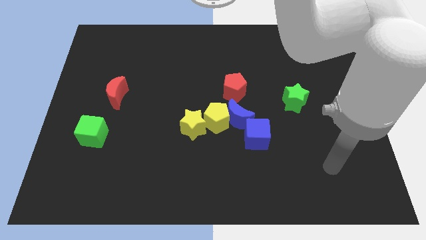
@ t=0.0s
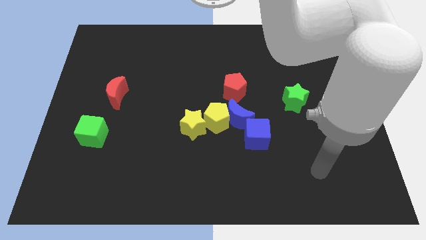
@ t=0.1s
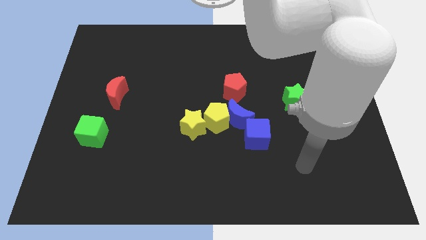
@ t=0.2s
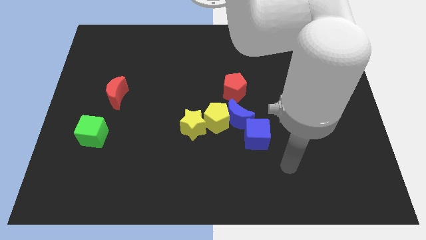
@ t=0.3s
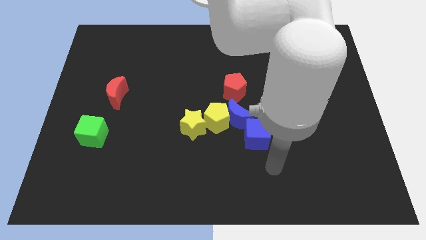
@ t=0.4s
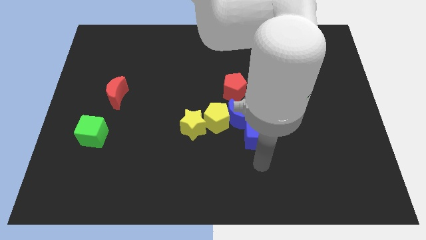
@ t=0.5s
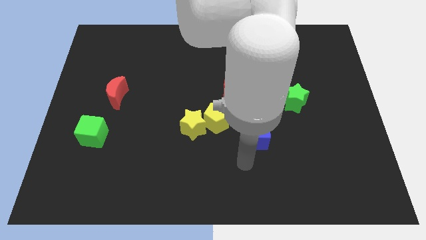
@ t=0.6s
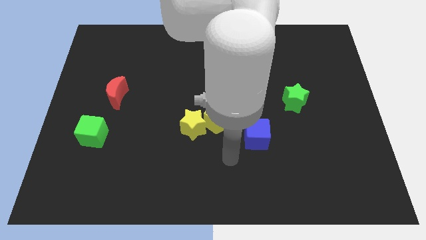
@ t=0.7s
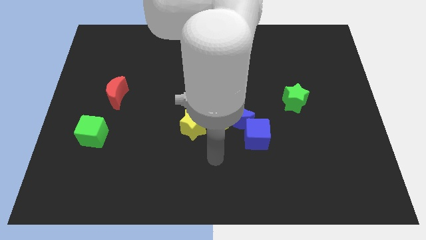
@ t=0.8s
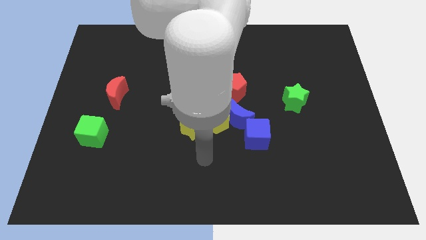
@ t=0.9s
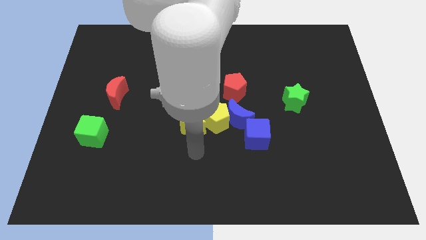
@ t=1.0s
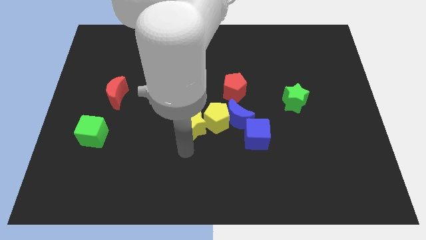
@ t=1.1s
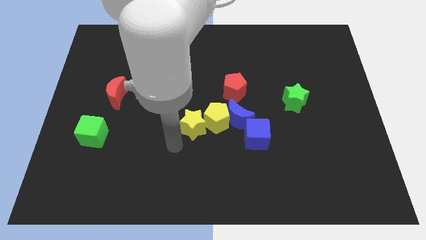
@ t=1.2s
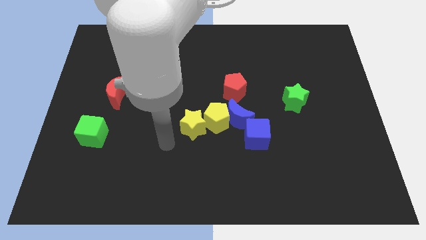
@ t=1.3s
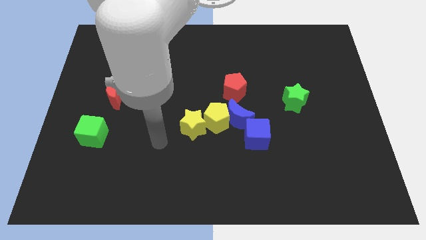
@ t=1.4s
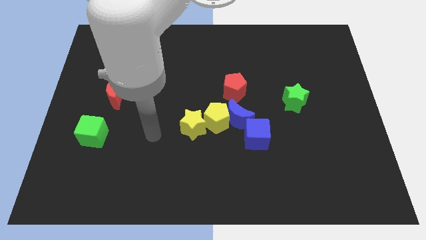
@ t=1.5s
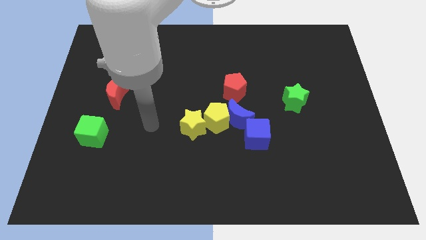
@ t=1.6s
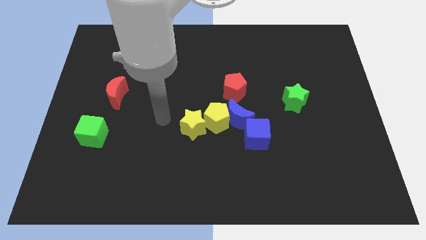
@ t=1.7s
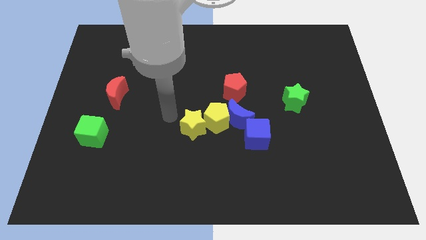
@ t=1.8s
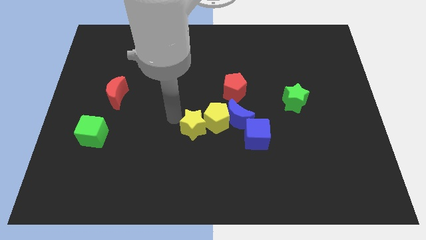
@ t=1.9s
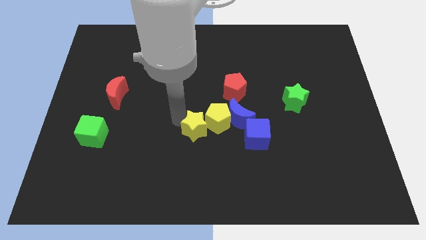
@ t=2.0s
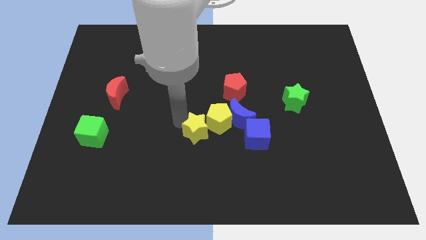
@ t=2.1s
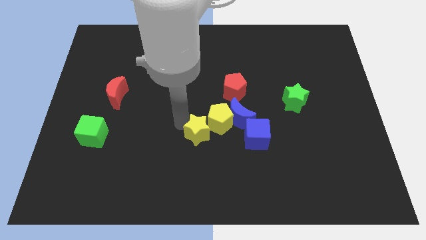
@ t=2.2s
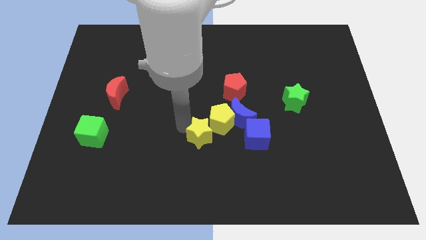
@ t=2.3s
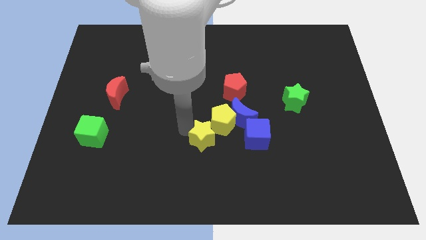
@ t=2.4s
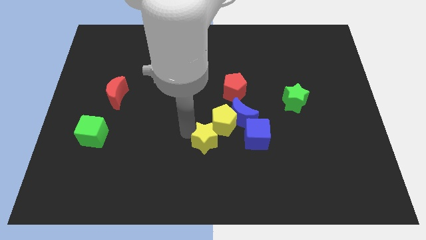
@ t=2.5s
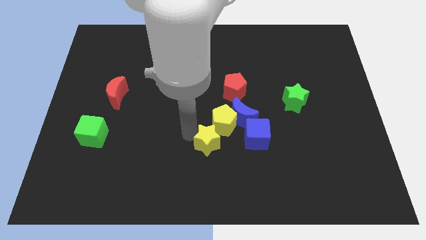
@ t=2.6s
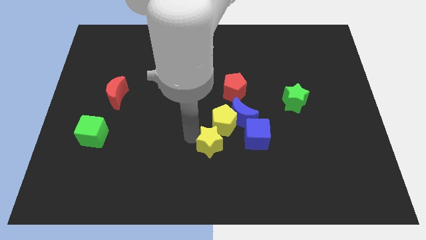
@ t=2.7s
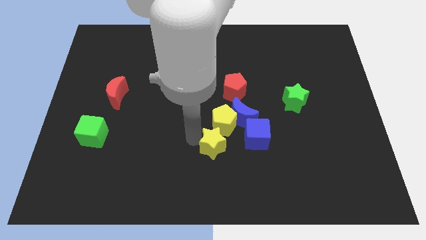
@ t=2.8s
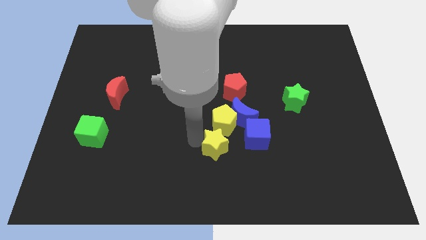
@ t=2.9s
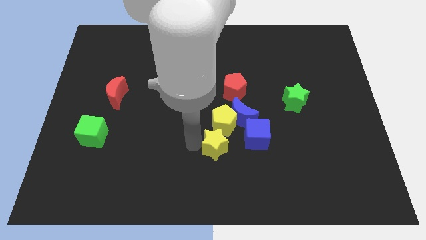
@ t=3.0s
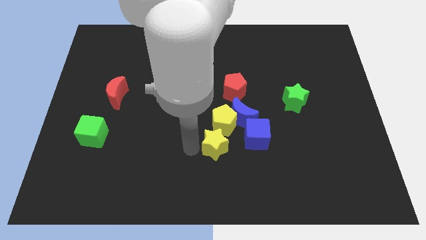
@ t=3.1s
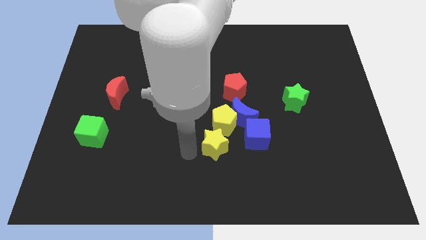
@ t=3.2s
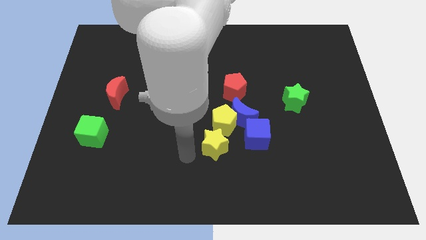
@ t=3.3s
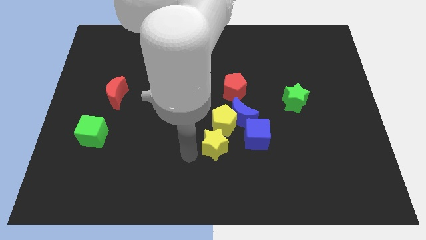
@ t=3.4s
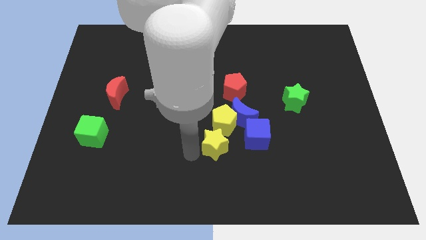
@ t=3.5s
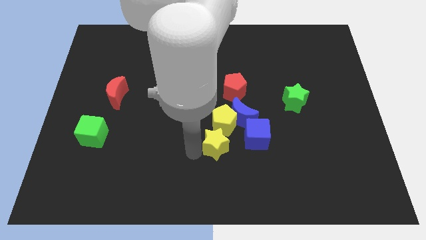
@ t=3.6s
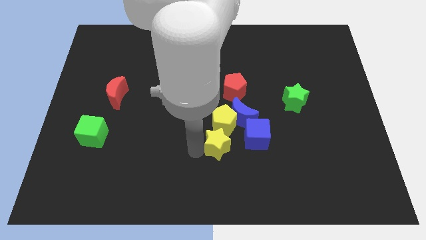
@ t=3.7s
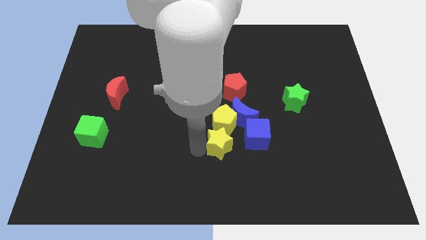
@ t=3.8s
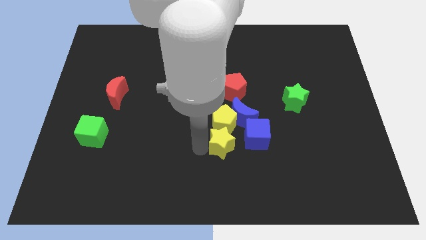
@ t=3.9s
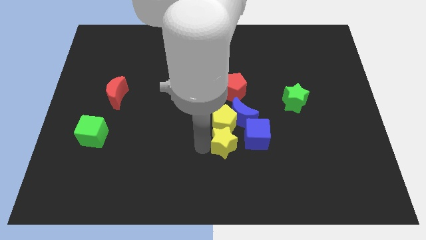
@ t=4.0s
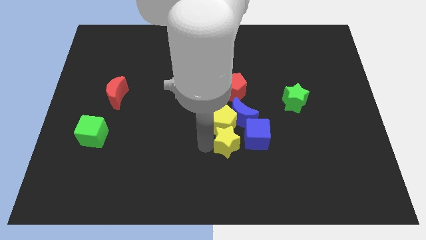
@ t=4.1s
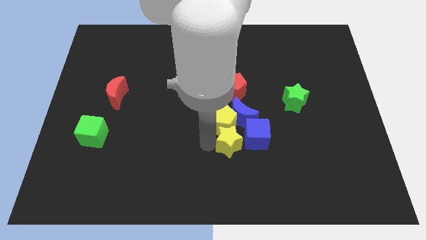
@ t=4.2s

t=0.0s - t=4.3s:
slide the yellow star a little bit to the right

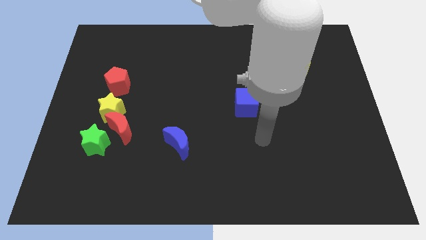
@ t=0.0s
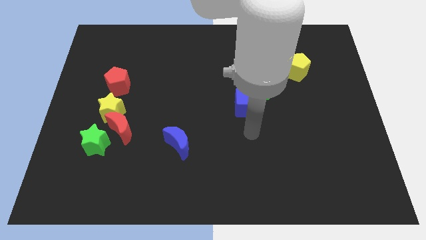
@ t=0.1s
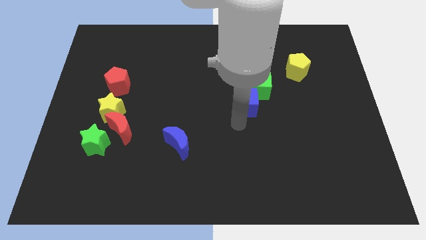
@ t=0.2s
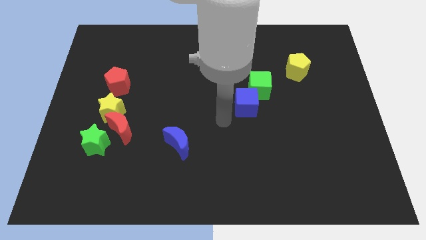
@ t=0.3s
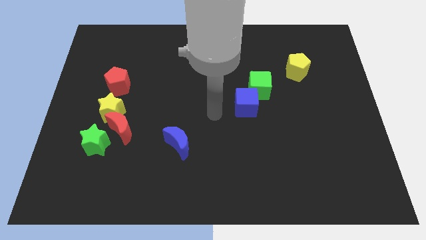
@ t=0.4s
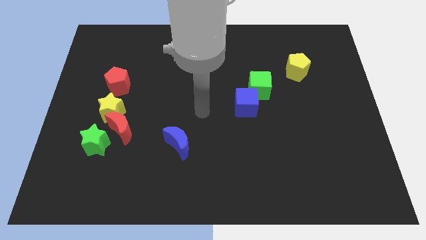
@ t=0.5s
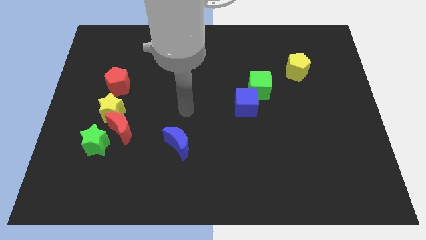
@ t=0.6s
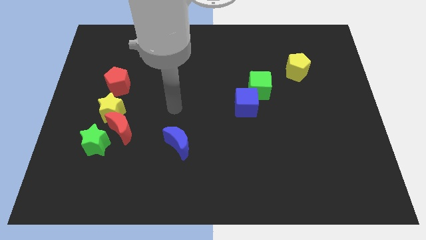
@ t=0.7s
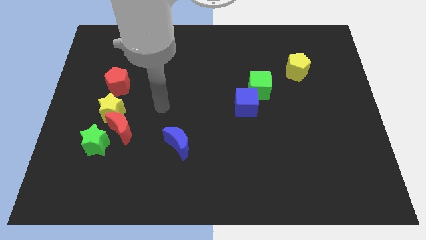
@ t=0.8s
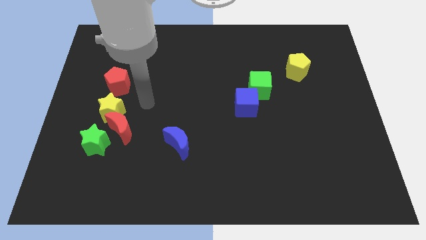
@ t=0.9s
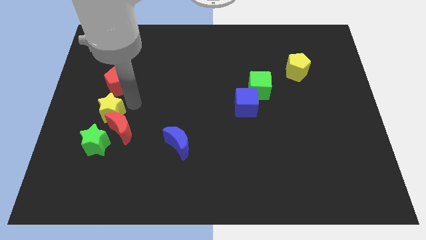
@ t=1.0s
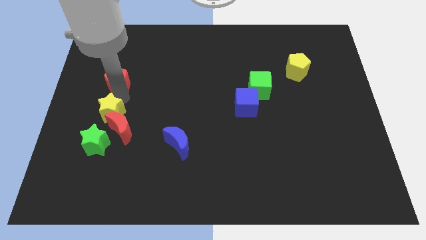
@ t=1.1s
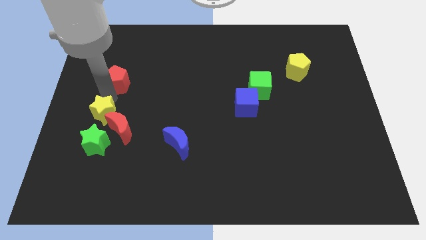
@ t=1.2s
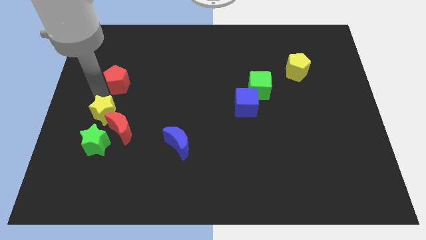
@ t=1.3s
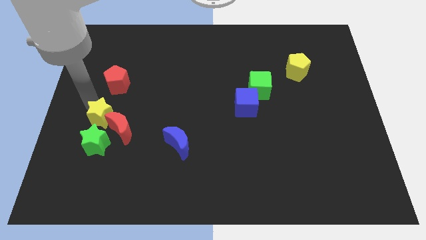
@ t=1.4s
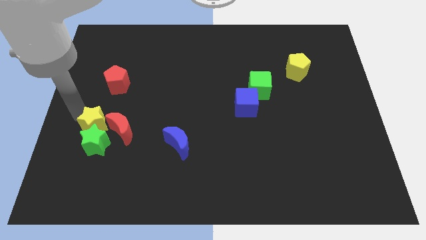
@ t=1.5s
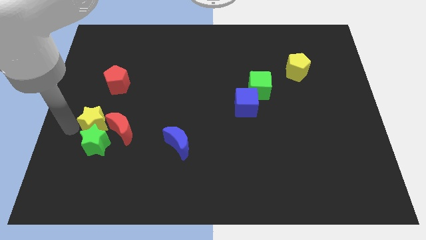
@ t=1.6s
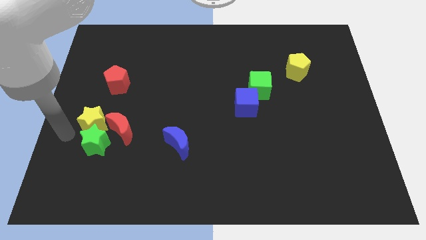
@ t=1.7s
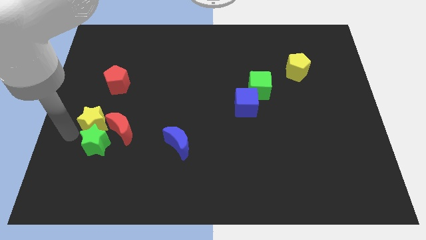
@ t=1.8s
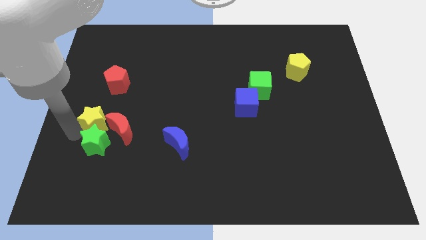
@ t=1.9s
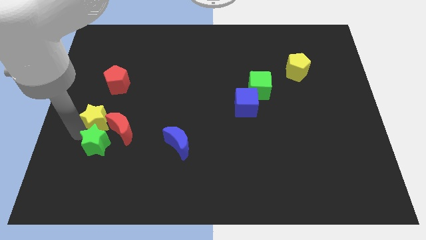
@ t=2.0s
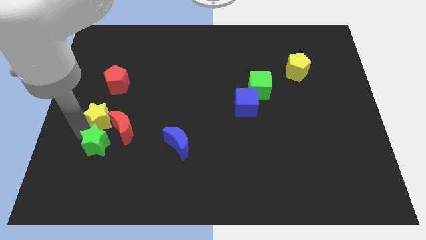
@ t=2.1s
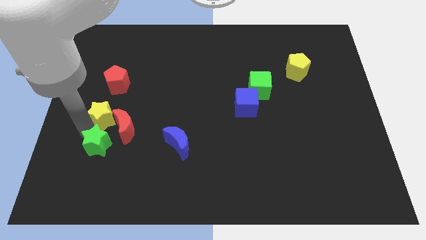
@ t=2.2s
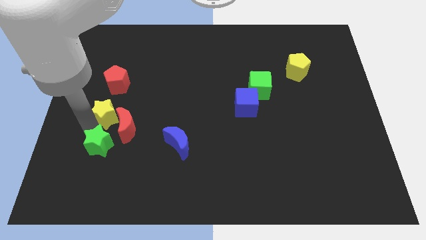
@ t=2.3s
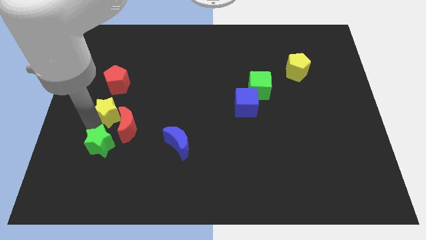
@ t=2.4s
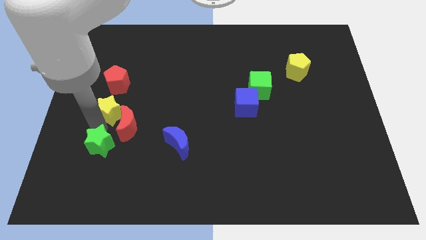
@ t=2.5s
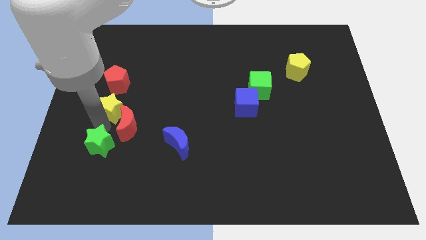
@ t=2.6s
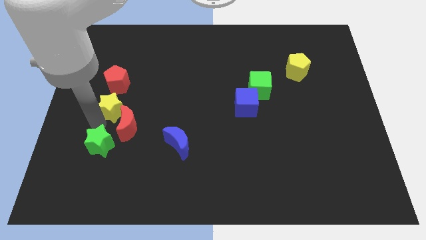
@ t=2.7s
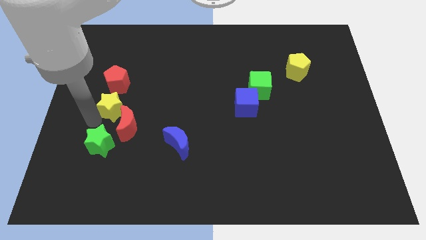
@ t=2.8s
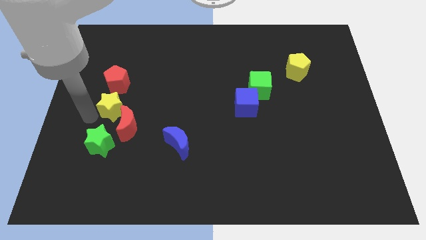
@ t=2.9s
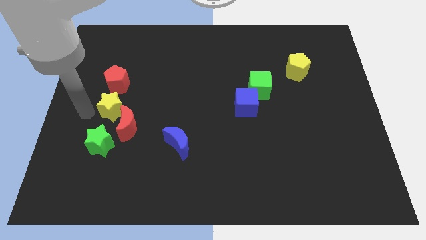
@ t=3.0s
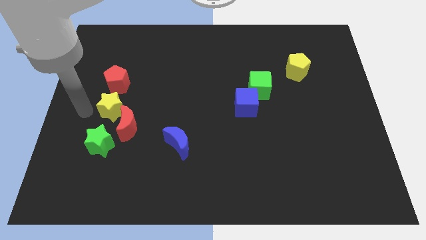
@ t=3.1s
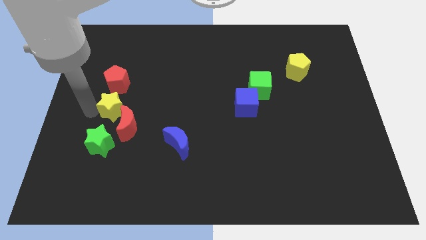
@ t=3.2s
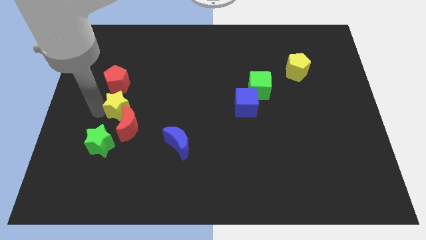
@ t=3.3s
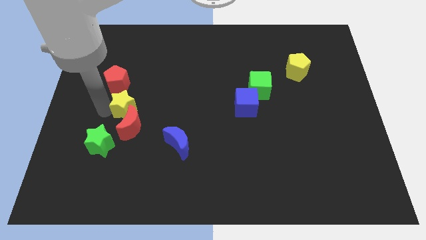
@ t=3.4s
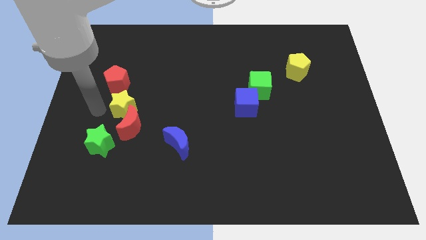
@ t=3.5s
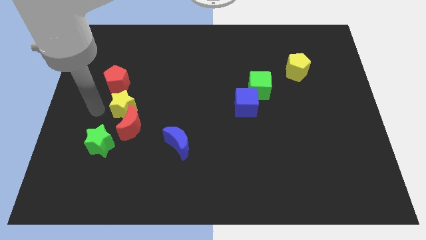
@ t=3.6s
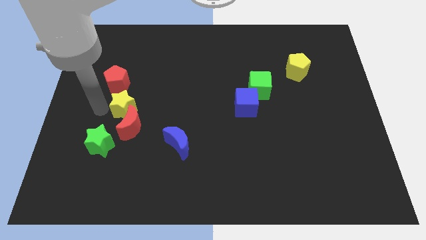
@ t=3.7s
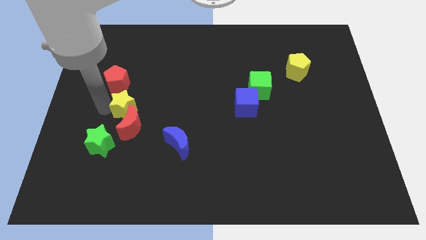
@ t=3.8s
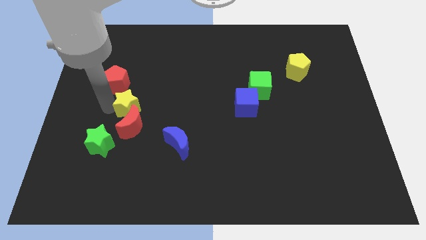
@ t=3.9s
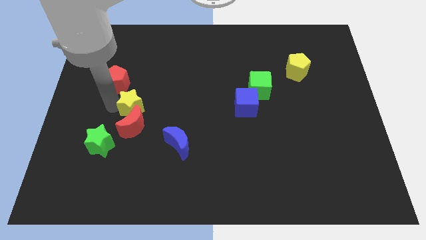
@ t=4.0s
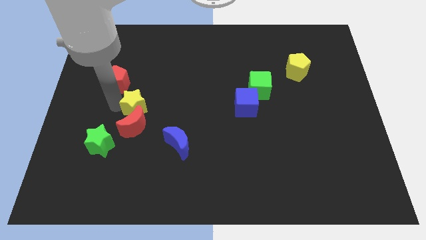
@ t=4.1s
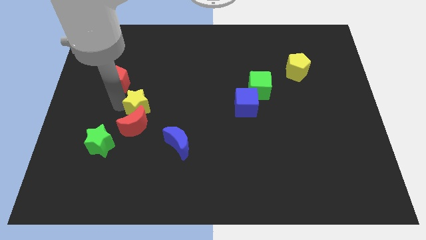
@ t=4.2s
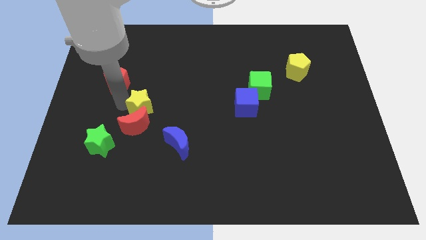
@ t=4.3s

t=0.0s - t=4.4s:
slide the yellow star a little bit right

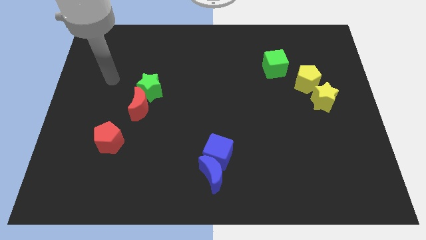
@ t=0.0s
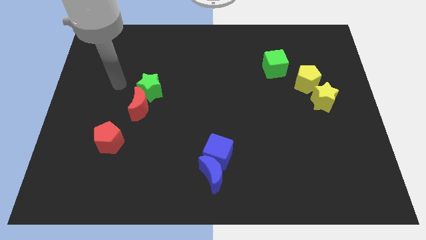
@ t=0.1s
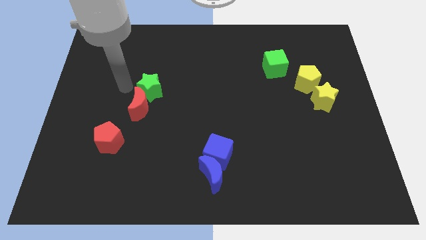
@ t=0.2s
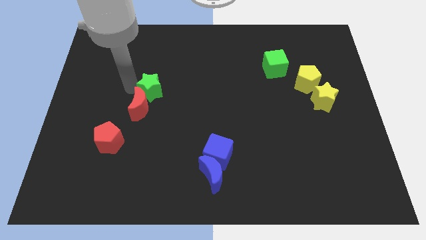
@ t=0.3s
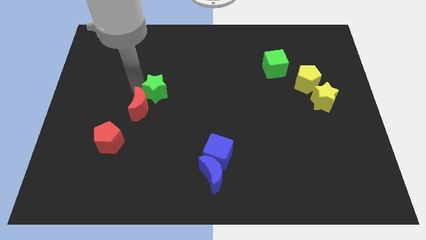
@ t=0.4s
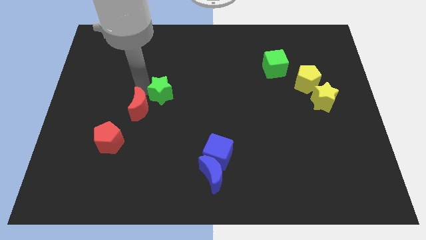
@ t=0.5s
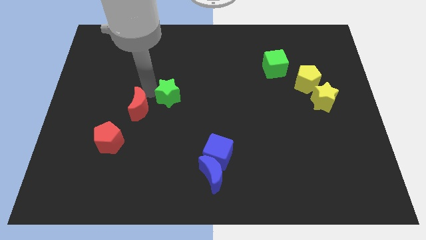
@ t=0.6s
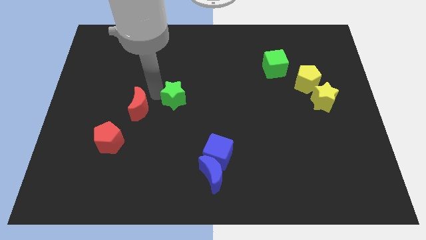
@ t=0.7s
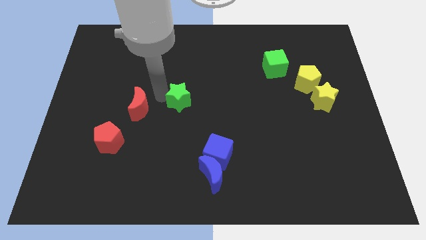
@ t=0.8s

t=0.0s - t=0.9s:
move the green star a little right
